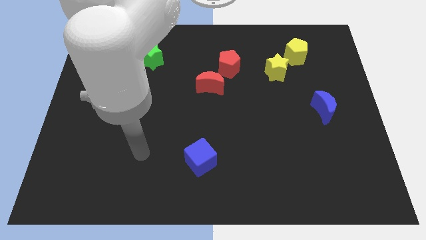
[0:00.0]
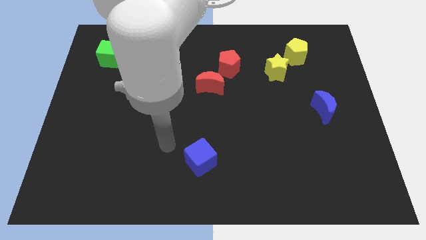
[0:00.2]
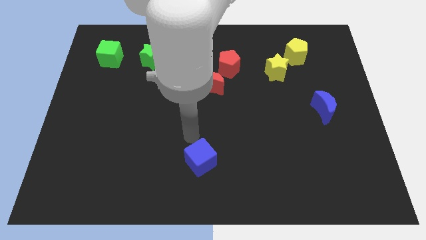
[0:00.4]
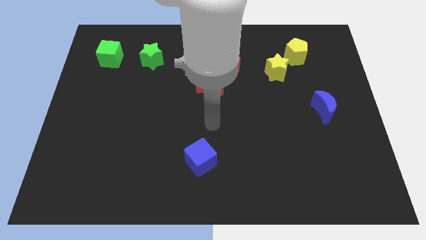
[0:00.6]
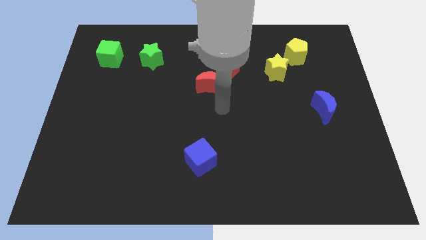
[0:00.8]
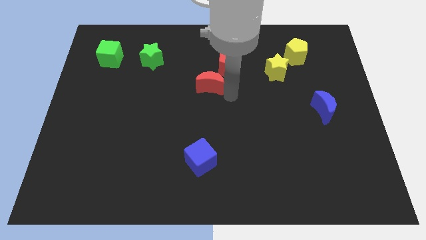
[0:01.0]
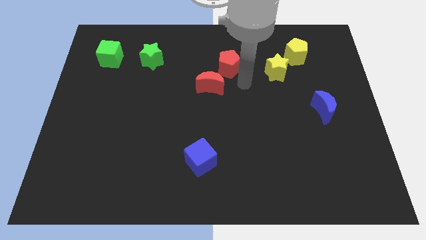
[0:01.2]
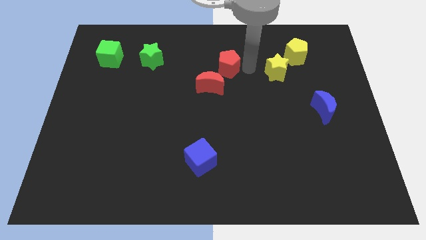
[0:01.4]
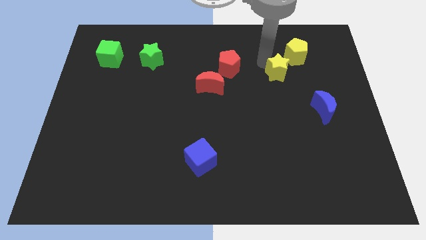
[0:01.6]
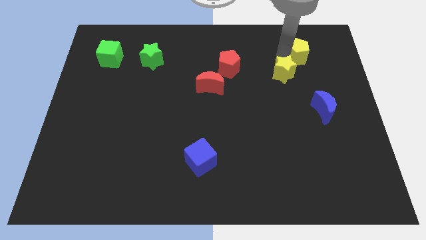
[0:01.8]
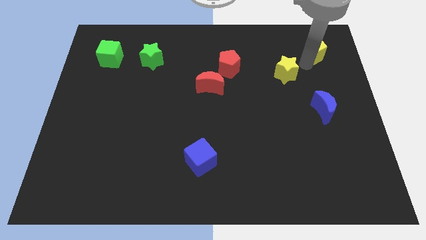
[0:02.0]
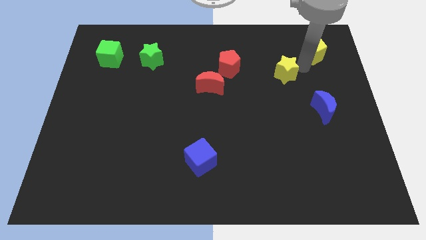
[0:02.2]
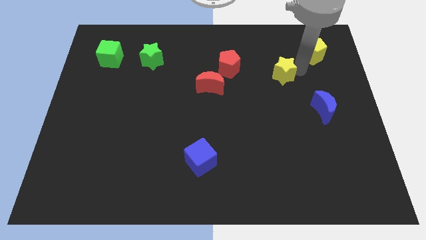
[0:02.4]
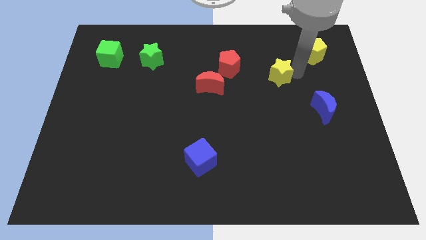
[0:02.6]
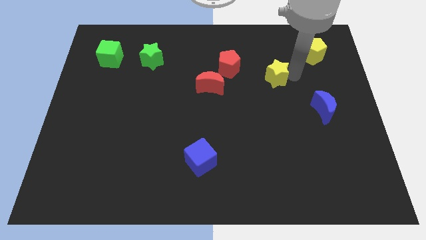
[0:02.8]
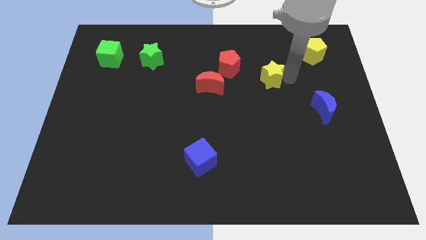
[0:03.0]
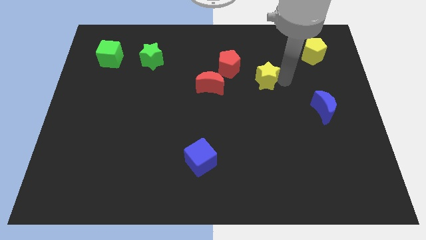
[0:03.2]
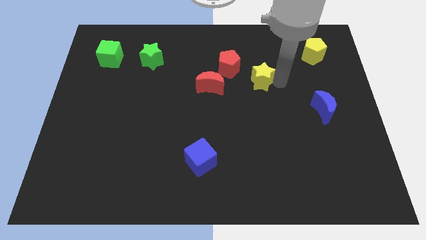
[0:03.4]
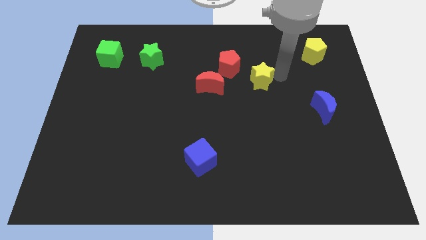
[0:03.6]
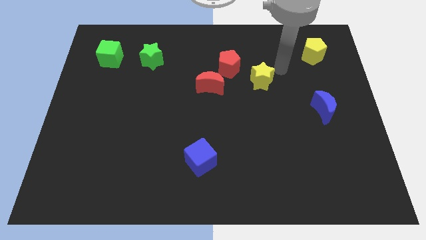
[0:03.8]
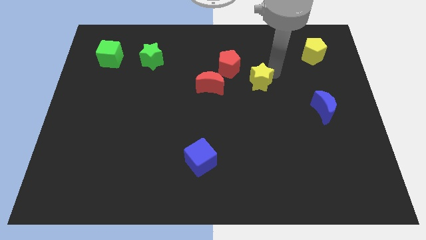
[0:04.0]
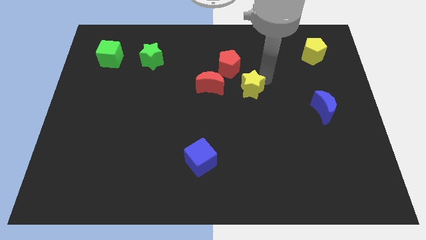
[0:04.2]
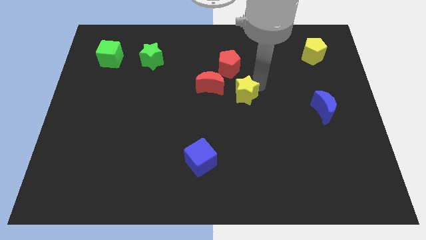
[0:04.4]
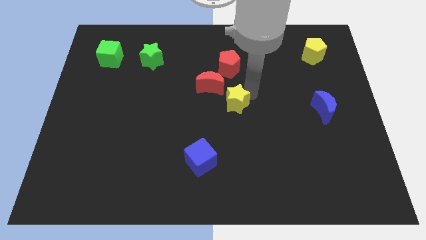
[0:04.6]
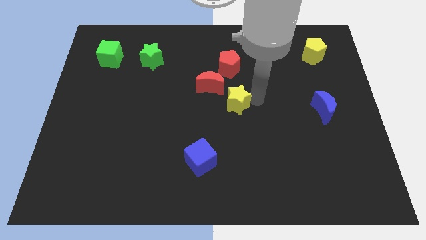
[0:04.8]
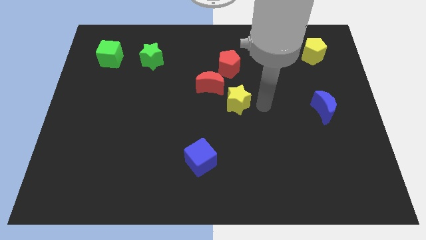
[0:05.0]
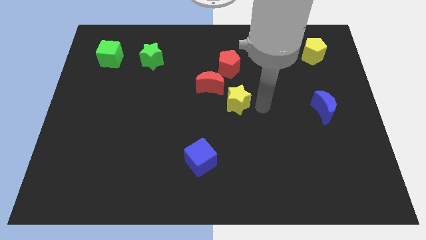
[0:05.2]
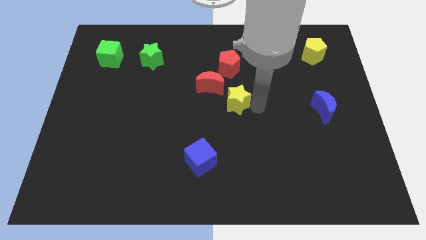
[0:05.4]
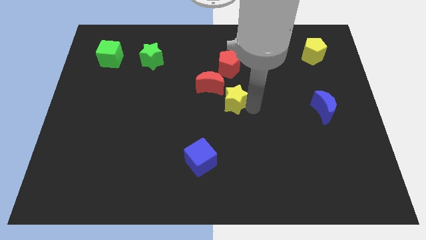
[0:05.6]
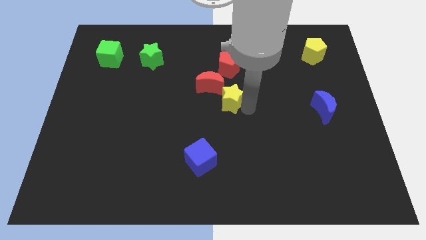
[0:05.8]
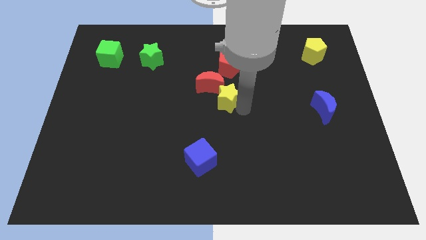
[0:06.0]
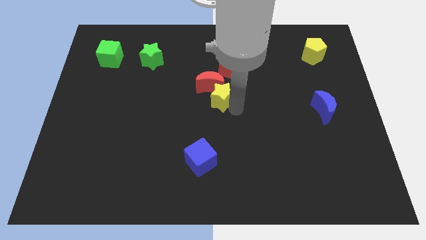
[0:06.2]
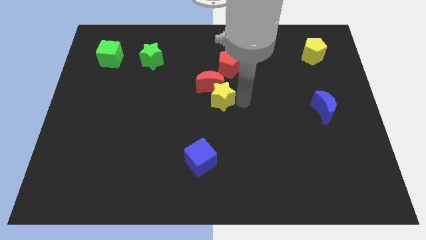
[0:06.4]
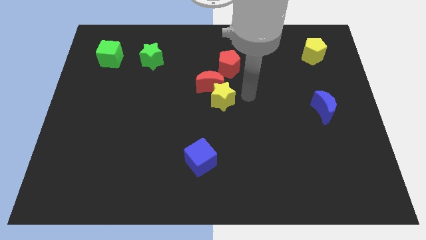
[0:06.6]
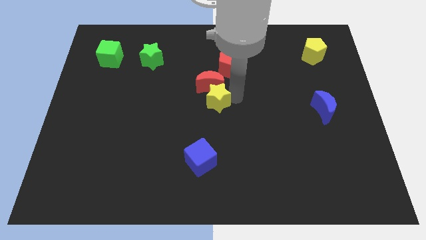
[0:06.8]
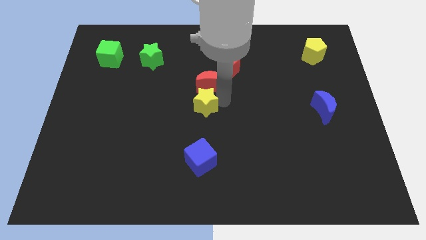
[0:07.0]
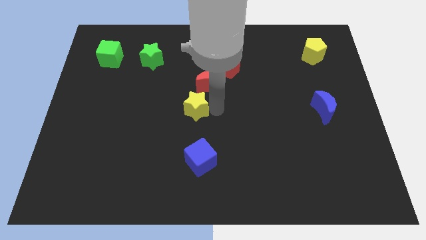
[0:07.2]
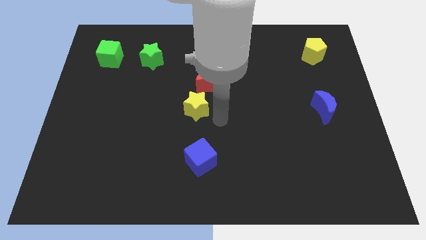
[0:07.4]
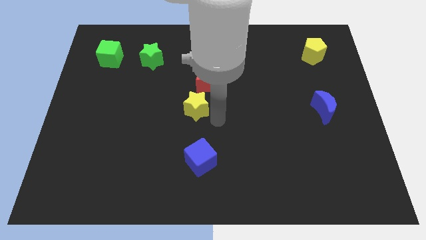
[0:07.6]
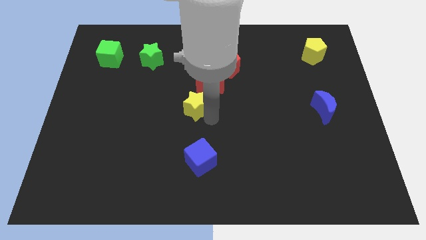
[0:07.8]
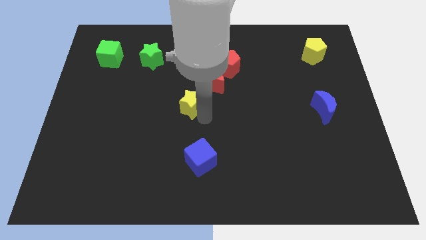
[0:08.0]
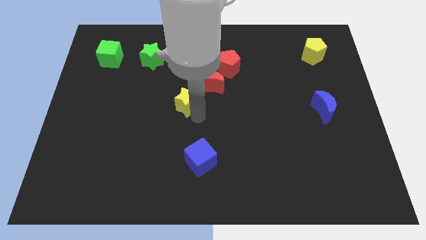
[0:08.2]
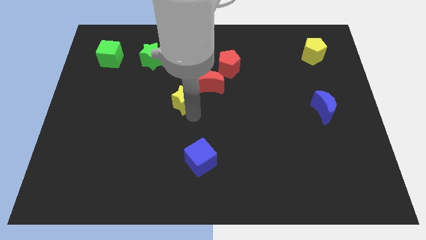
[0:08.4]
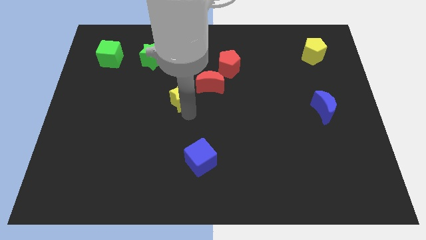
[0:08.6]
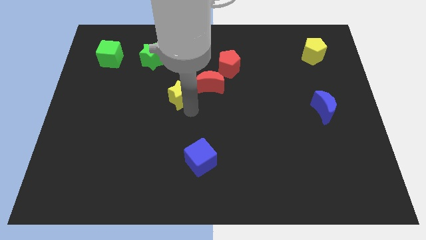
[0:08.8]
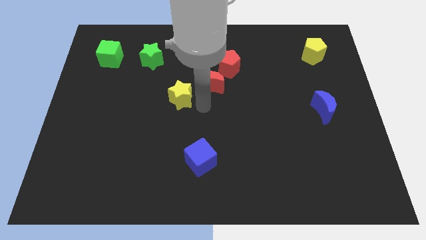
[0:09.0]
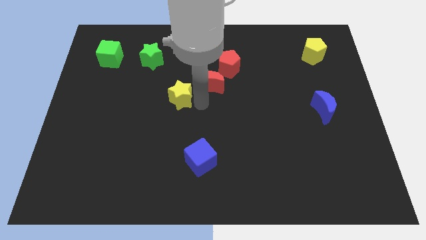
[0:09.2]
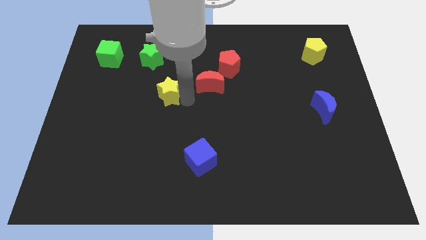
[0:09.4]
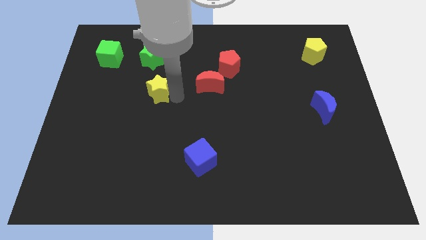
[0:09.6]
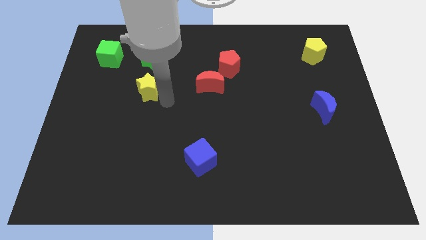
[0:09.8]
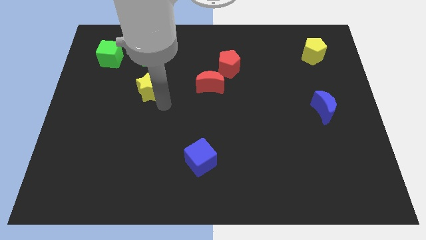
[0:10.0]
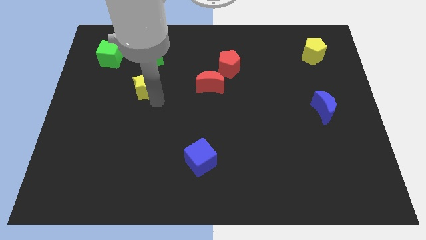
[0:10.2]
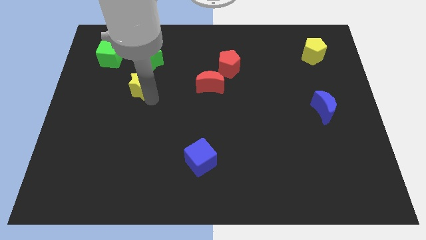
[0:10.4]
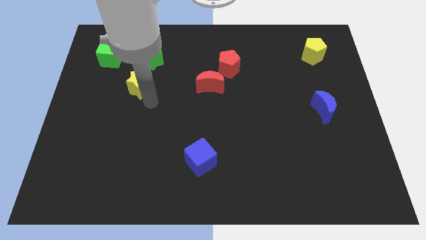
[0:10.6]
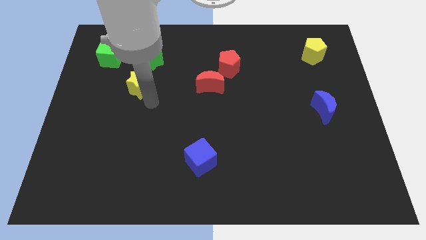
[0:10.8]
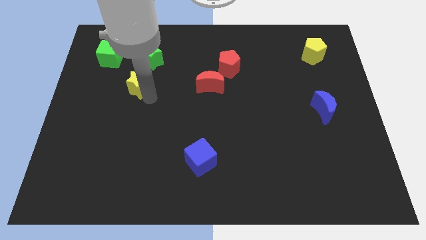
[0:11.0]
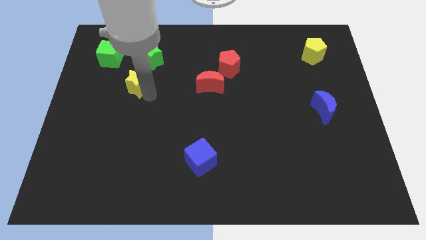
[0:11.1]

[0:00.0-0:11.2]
push the yellow star to the bottom left side of the green star

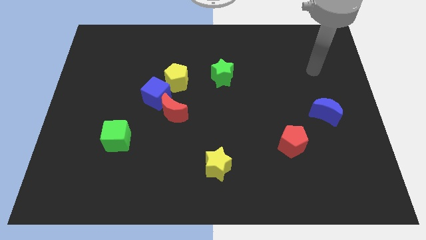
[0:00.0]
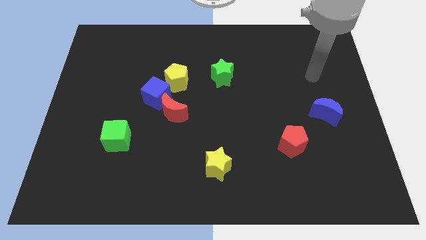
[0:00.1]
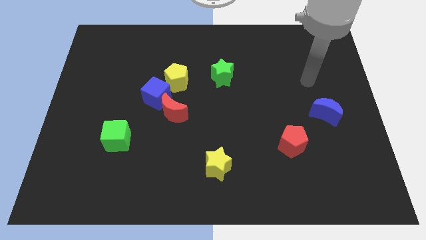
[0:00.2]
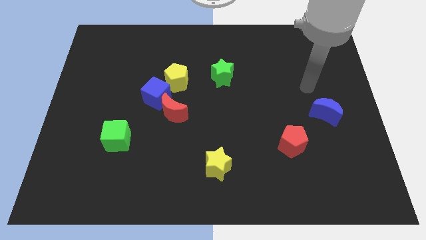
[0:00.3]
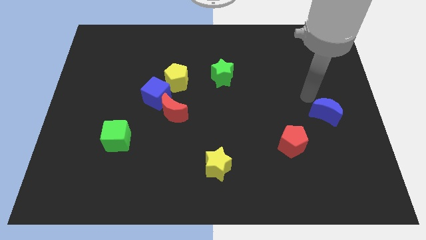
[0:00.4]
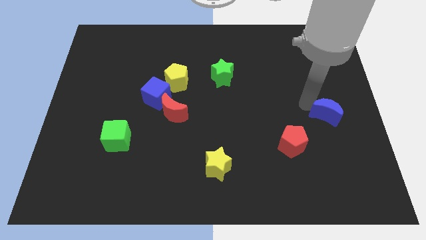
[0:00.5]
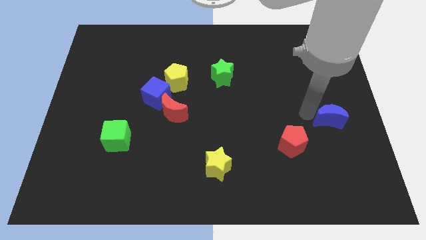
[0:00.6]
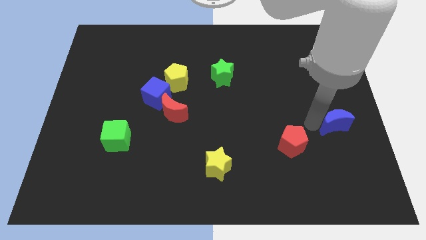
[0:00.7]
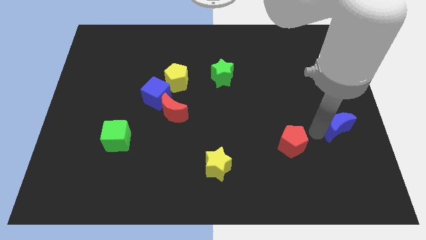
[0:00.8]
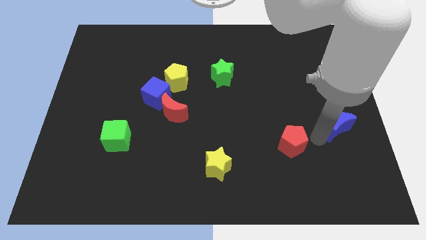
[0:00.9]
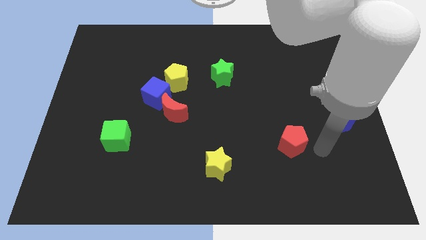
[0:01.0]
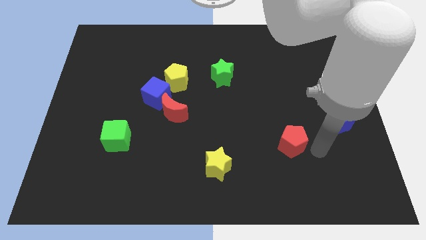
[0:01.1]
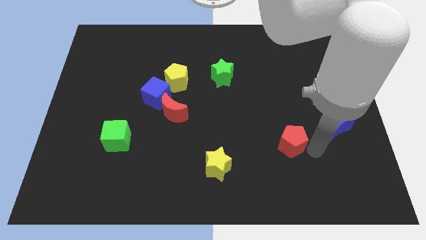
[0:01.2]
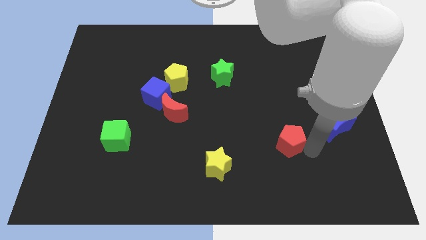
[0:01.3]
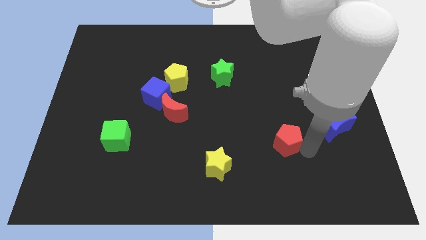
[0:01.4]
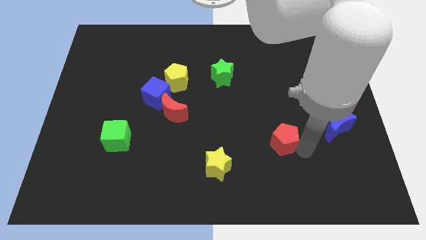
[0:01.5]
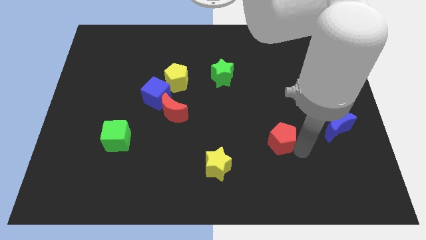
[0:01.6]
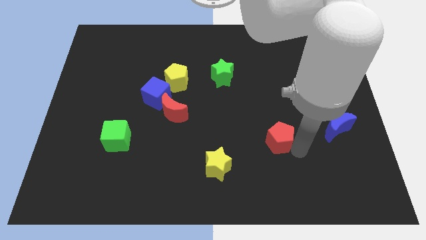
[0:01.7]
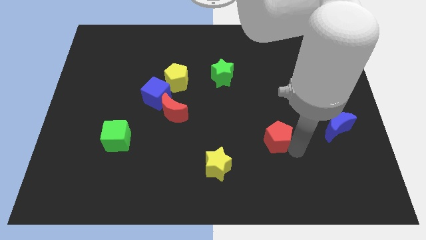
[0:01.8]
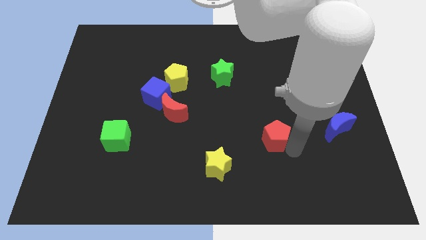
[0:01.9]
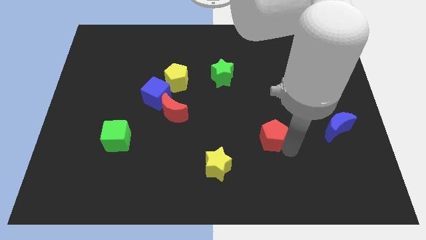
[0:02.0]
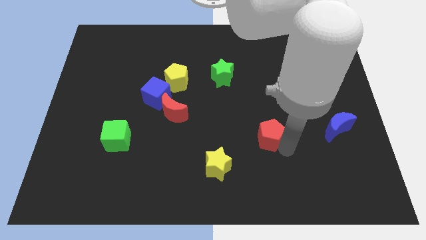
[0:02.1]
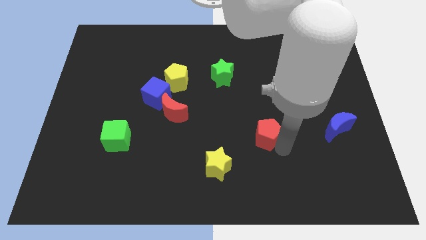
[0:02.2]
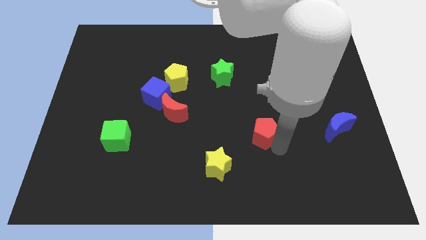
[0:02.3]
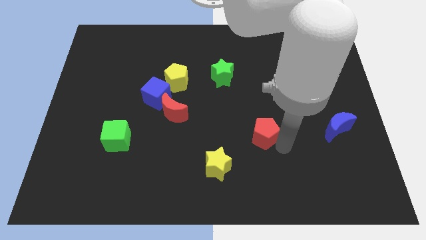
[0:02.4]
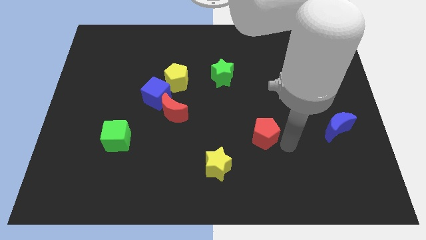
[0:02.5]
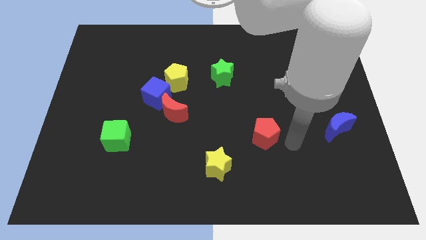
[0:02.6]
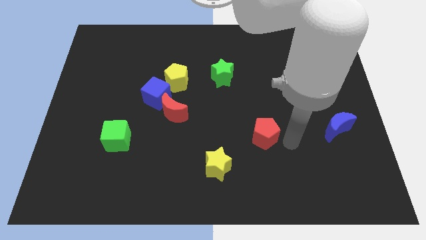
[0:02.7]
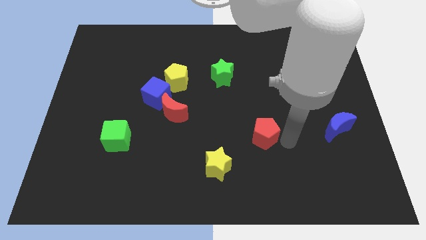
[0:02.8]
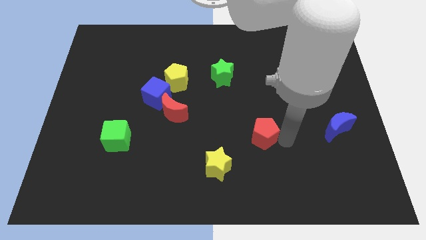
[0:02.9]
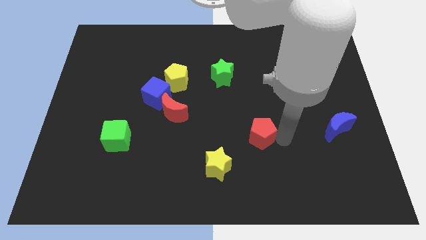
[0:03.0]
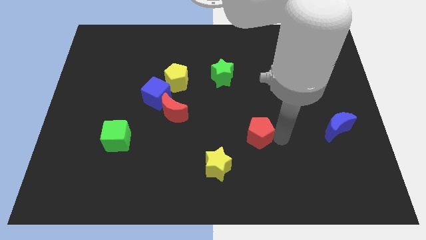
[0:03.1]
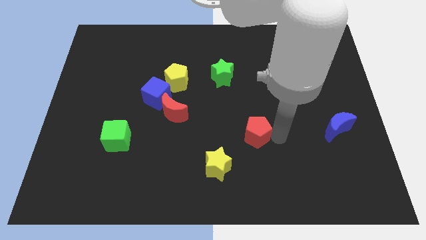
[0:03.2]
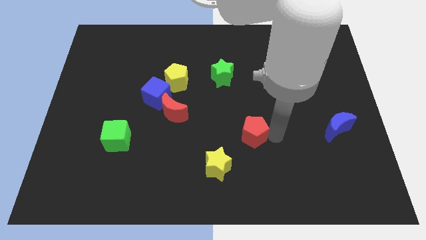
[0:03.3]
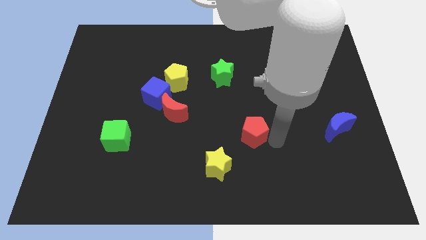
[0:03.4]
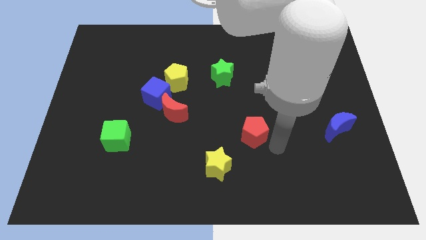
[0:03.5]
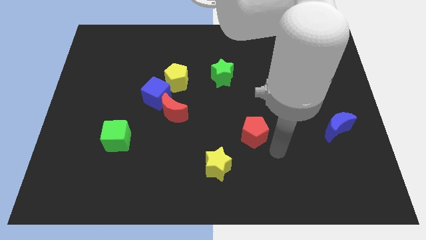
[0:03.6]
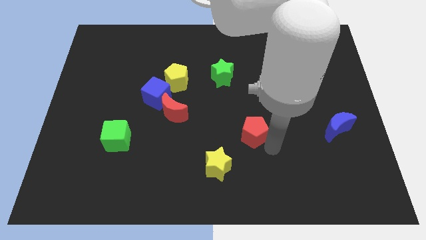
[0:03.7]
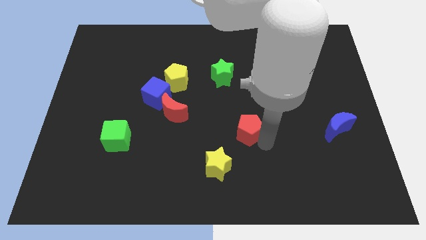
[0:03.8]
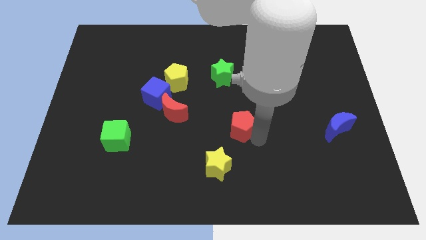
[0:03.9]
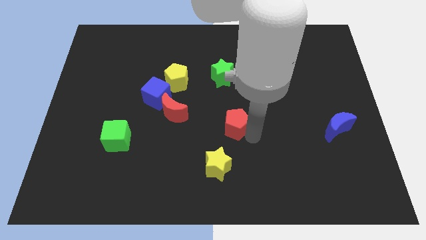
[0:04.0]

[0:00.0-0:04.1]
put the red pentagon to the bottom of the green star
